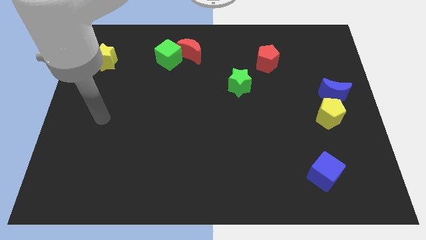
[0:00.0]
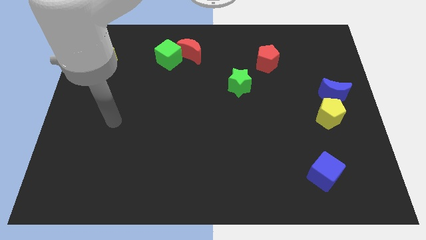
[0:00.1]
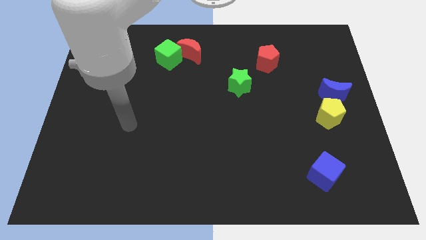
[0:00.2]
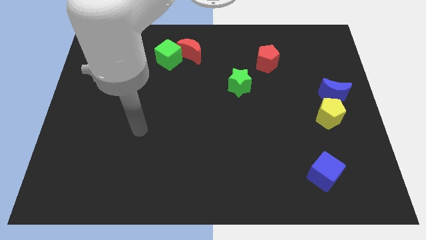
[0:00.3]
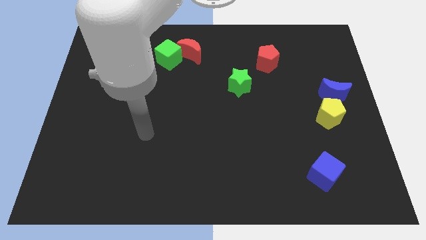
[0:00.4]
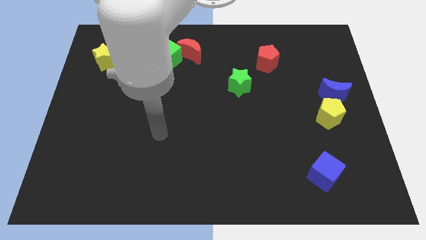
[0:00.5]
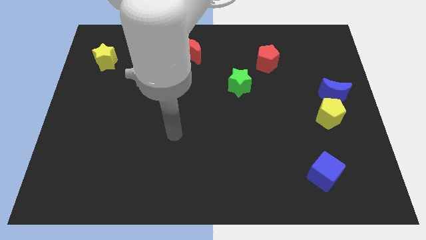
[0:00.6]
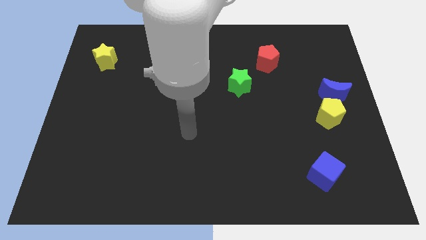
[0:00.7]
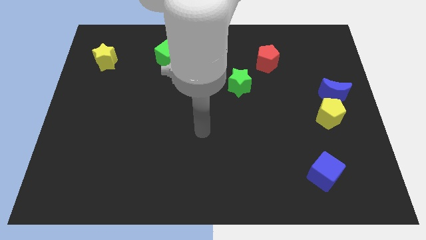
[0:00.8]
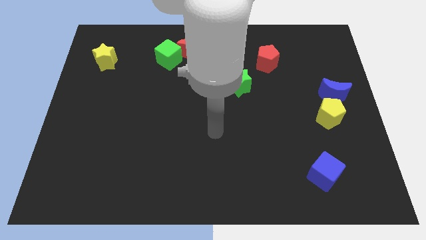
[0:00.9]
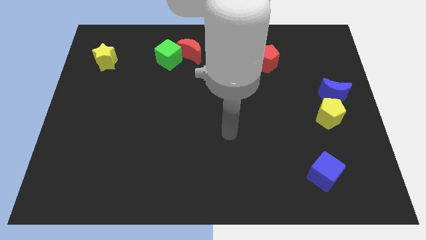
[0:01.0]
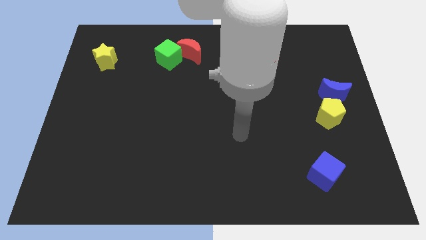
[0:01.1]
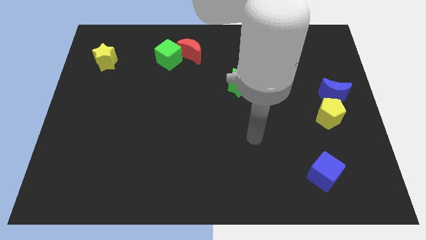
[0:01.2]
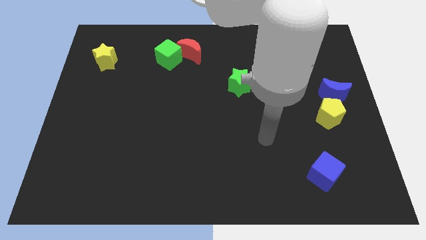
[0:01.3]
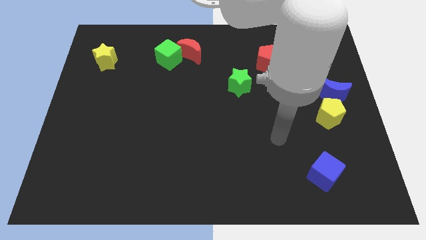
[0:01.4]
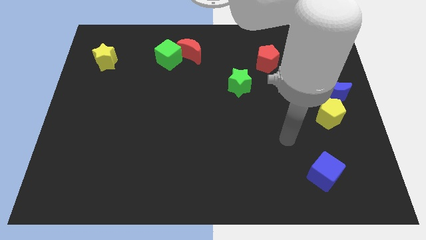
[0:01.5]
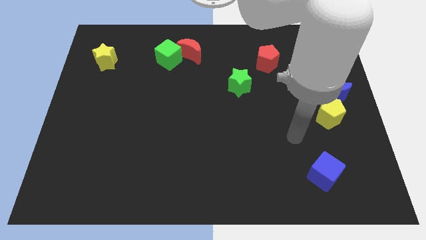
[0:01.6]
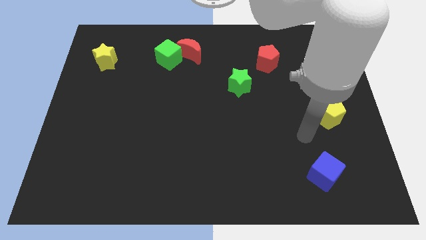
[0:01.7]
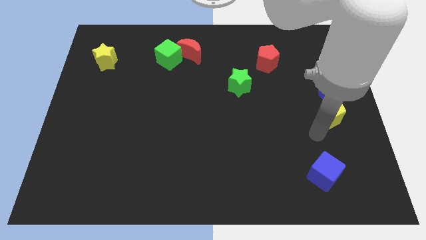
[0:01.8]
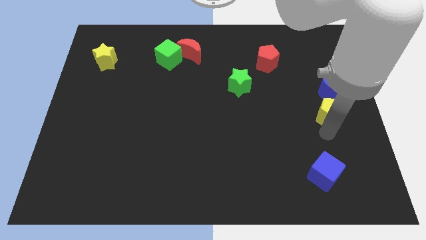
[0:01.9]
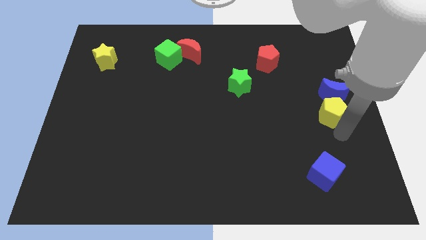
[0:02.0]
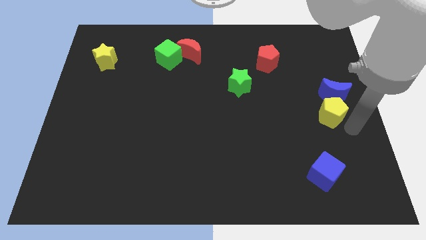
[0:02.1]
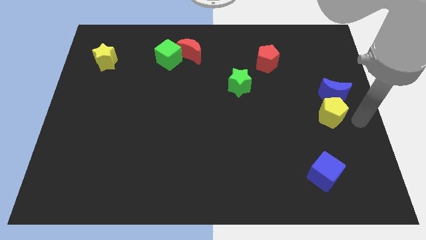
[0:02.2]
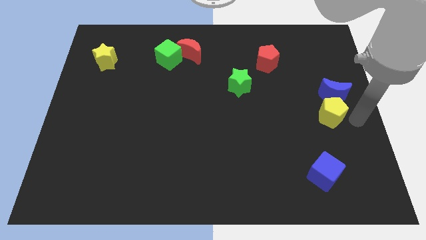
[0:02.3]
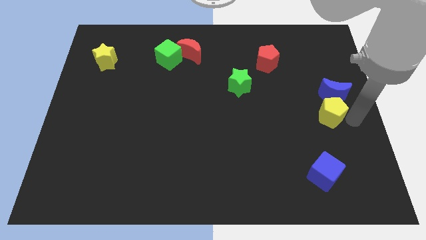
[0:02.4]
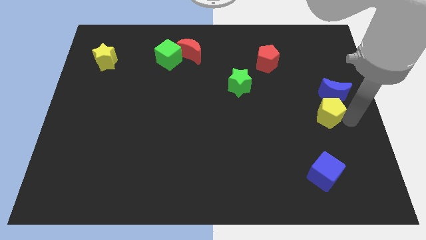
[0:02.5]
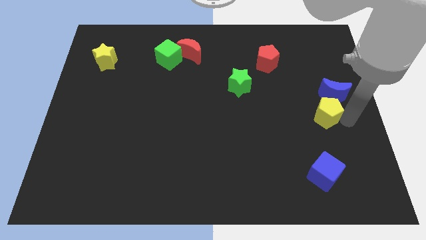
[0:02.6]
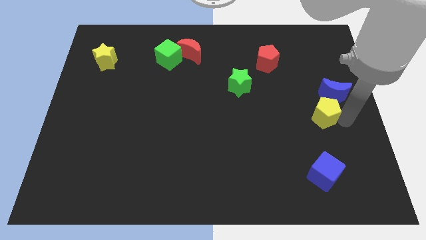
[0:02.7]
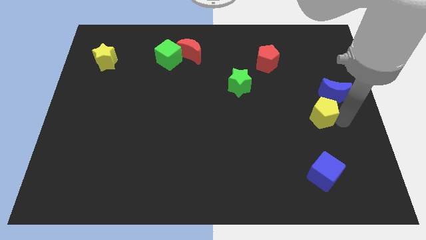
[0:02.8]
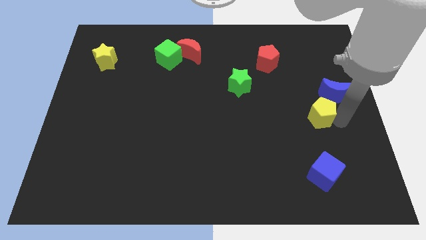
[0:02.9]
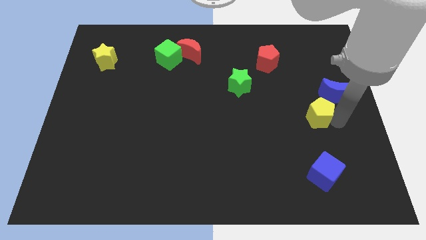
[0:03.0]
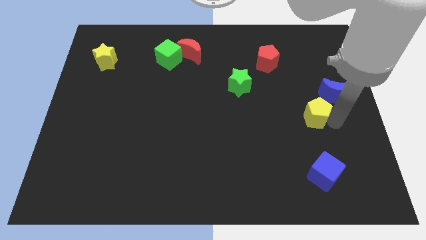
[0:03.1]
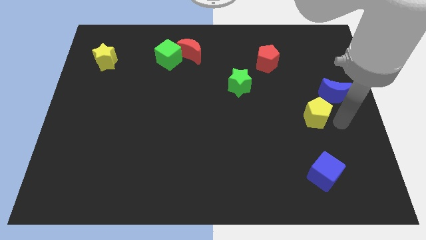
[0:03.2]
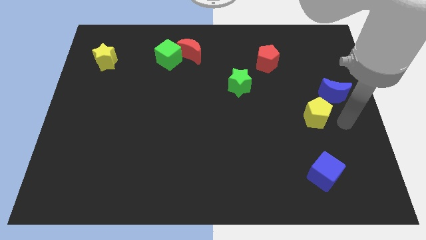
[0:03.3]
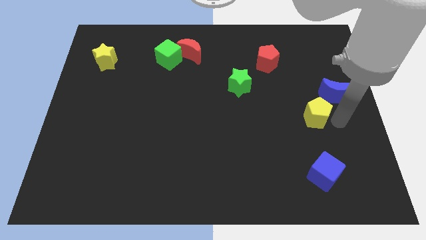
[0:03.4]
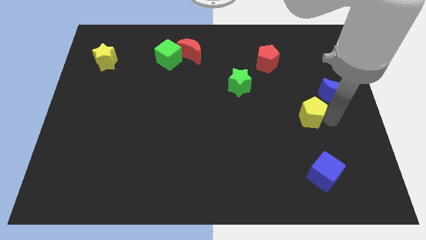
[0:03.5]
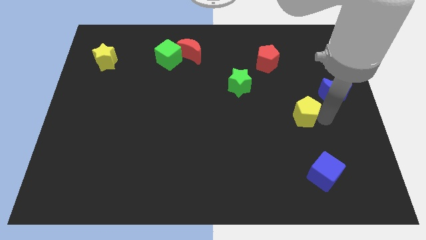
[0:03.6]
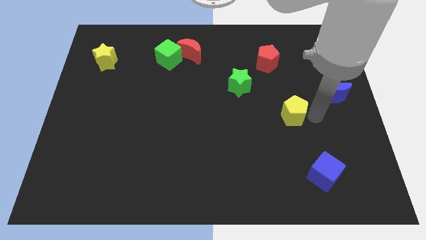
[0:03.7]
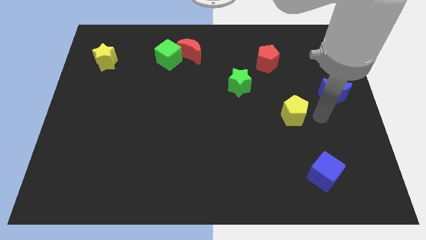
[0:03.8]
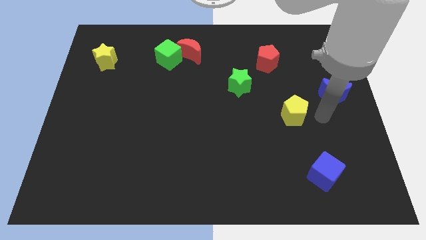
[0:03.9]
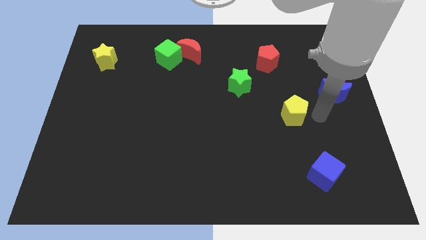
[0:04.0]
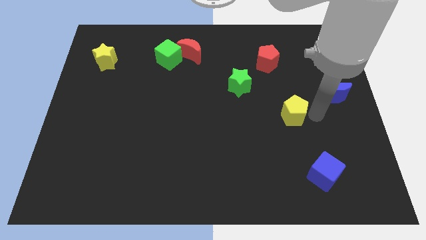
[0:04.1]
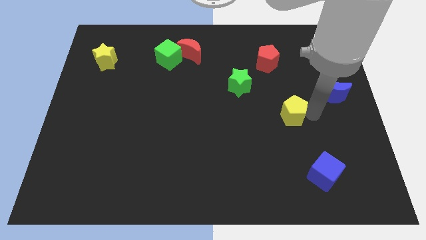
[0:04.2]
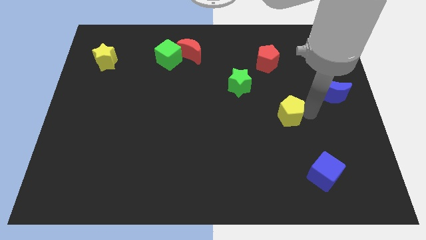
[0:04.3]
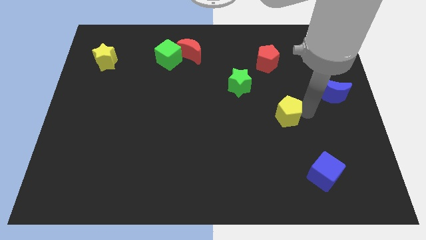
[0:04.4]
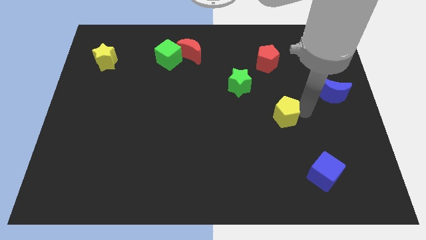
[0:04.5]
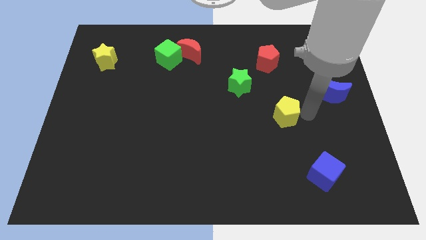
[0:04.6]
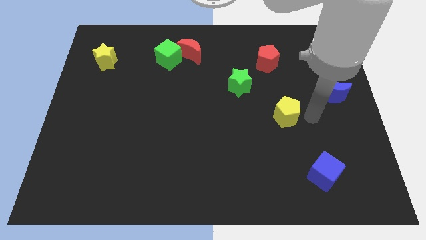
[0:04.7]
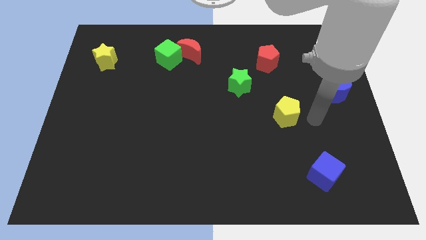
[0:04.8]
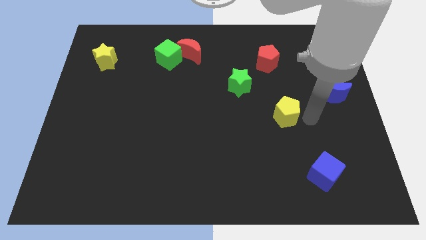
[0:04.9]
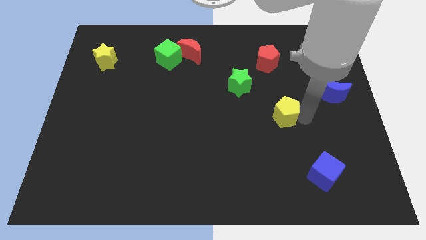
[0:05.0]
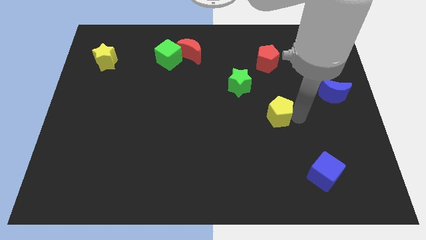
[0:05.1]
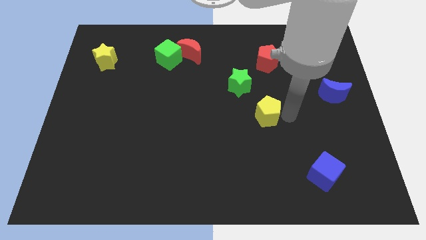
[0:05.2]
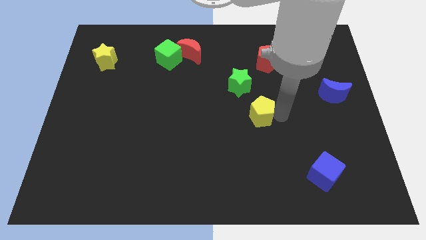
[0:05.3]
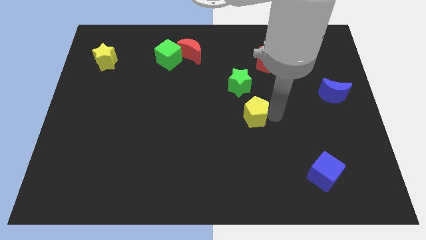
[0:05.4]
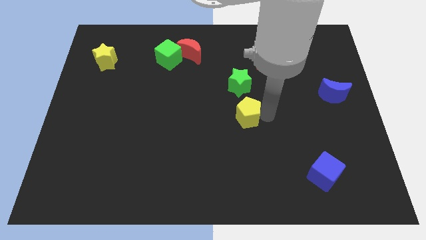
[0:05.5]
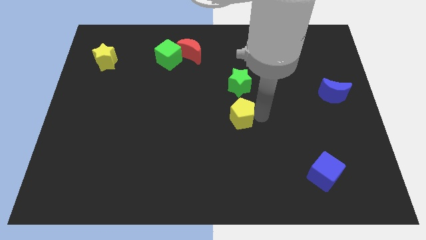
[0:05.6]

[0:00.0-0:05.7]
push the yellow pentagon left

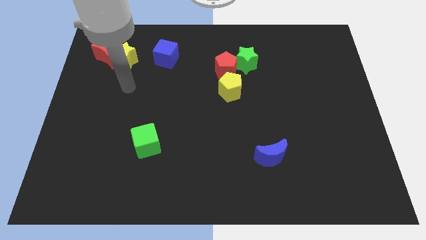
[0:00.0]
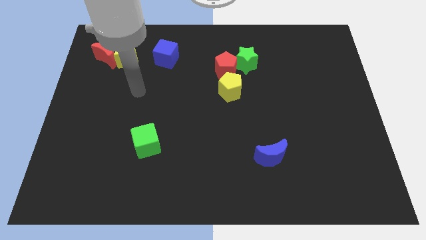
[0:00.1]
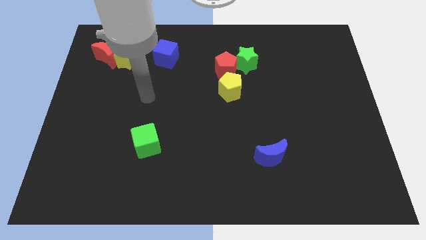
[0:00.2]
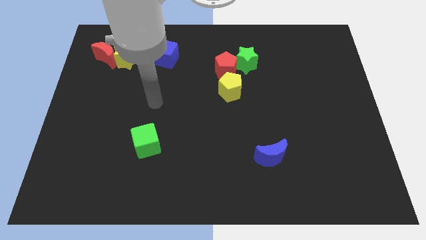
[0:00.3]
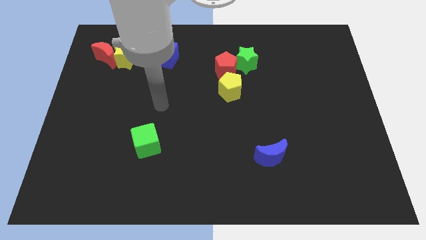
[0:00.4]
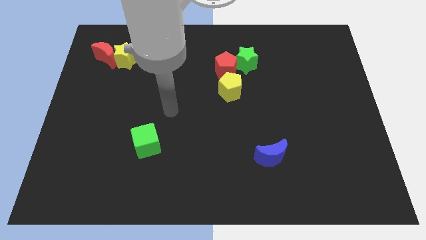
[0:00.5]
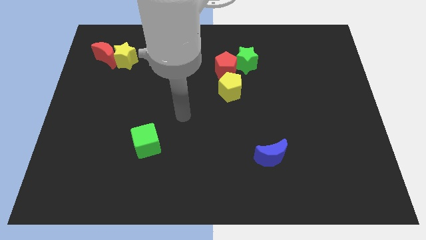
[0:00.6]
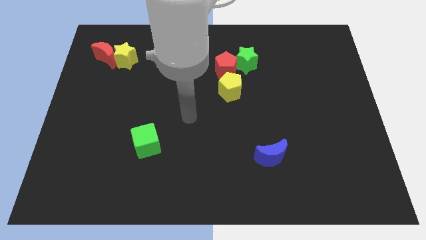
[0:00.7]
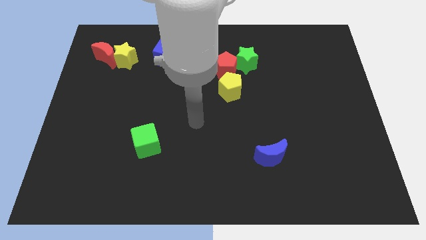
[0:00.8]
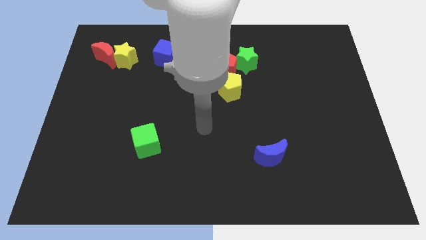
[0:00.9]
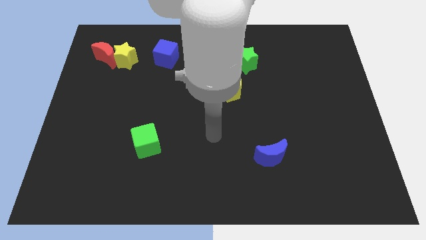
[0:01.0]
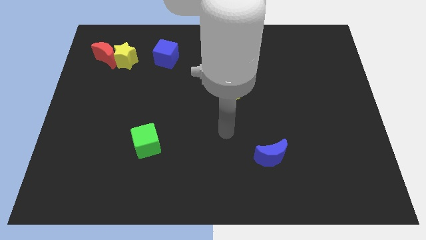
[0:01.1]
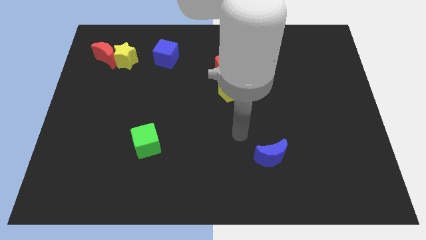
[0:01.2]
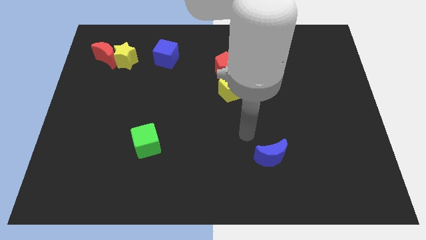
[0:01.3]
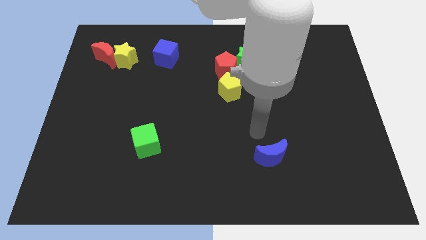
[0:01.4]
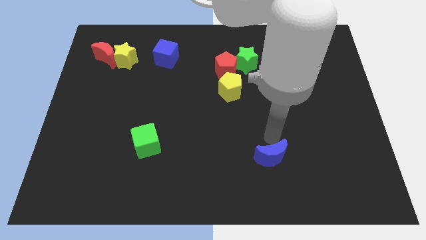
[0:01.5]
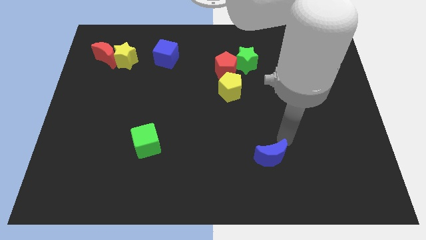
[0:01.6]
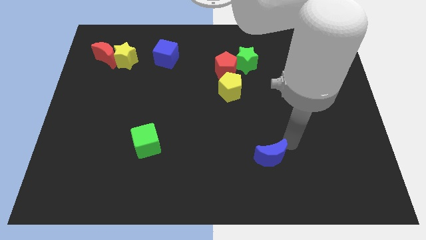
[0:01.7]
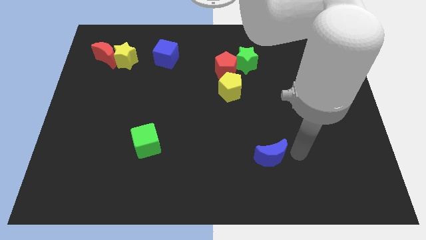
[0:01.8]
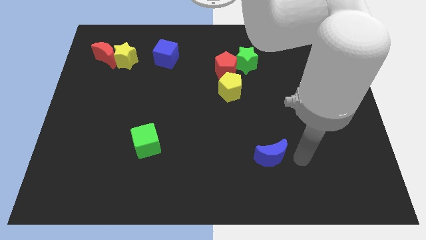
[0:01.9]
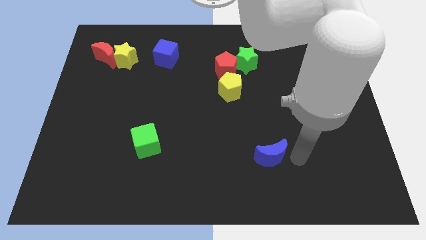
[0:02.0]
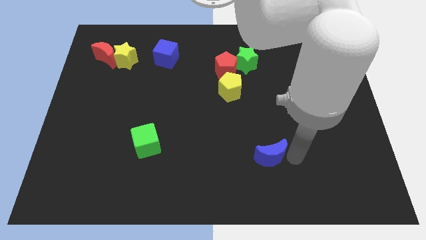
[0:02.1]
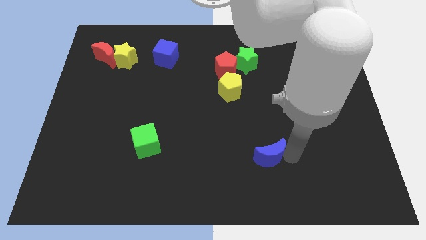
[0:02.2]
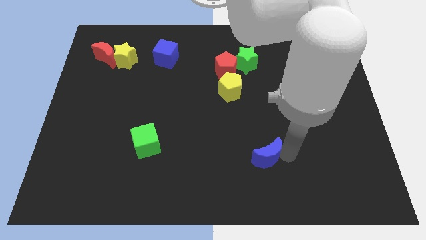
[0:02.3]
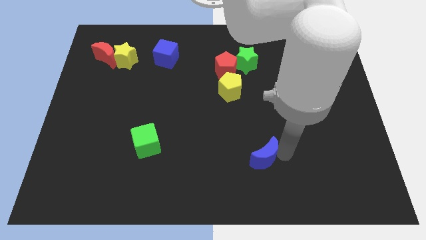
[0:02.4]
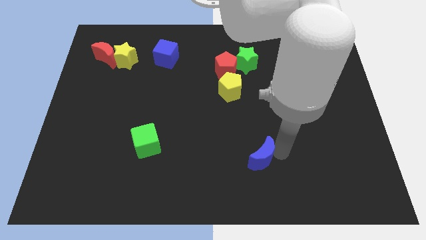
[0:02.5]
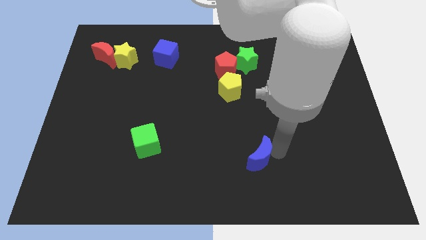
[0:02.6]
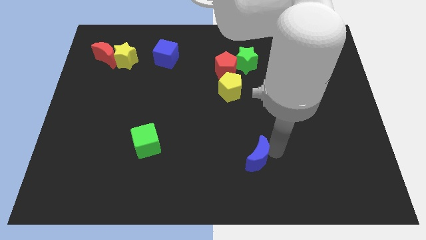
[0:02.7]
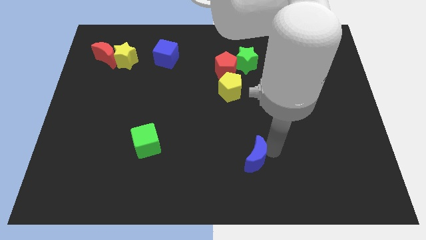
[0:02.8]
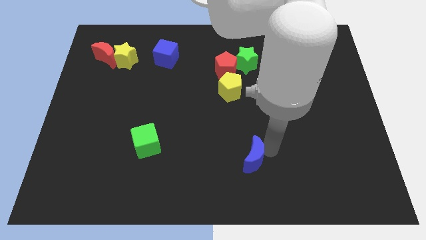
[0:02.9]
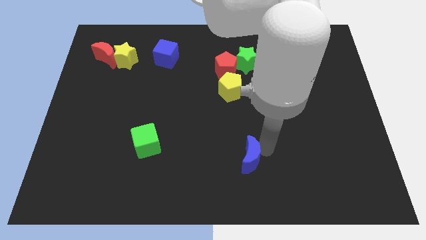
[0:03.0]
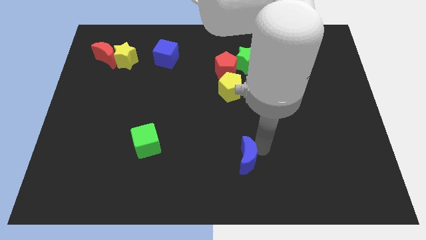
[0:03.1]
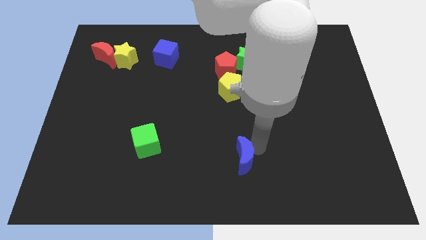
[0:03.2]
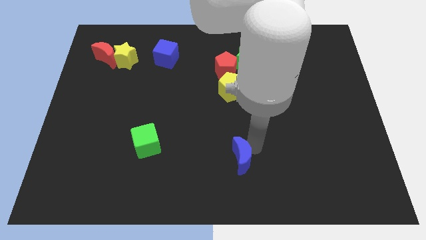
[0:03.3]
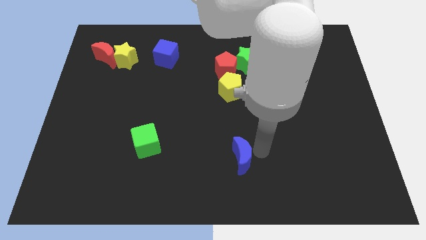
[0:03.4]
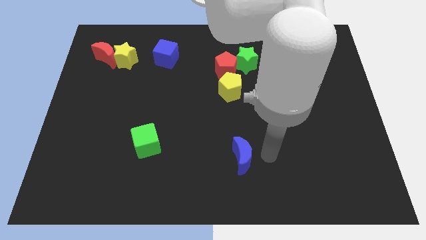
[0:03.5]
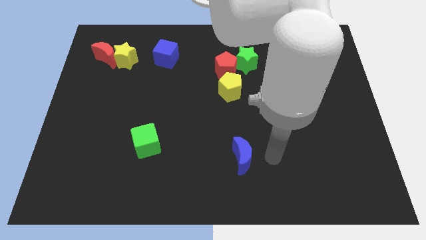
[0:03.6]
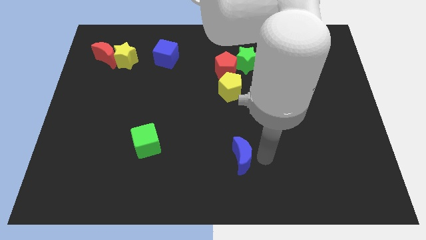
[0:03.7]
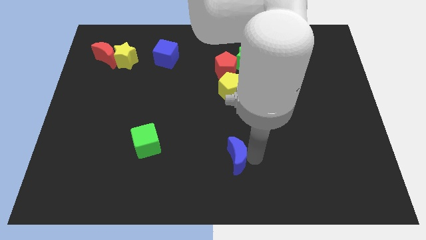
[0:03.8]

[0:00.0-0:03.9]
slightly push the blue moon left
